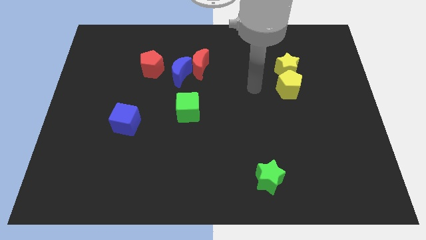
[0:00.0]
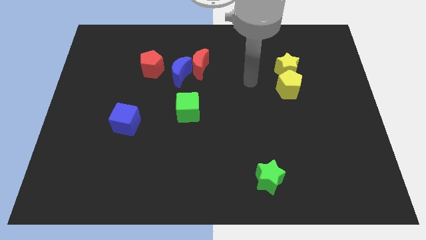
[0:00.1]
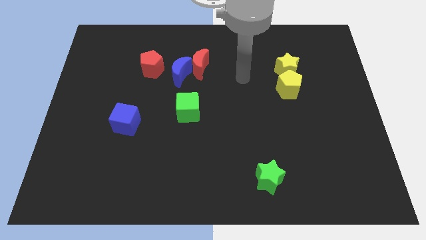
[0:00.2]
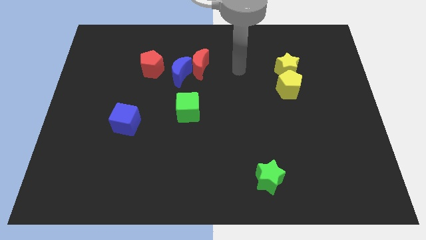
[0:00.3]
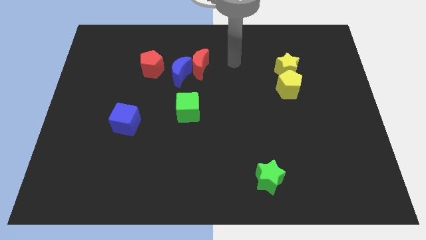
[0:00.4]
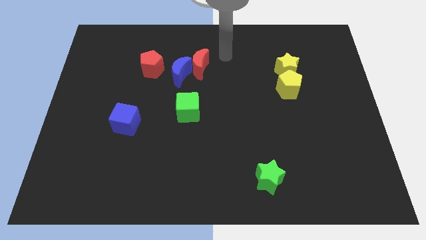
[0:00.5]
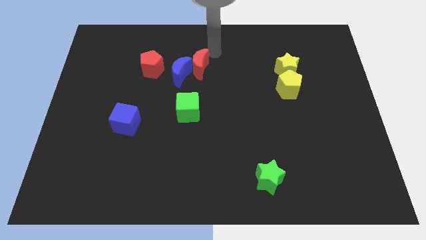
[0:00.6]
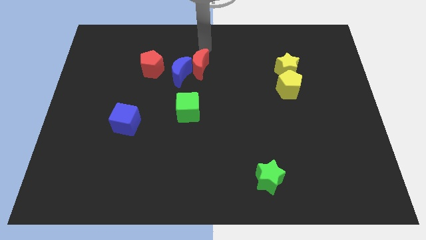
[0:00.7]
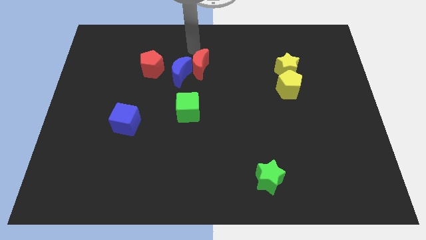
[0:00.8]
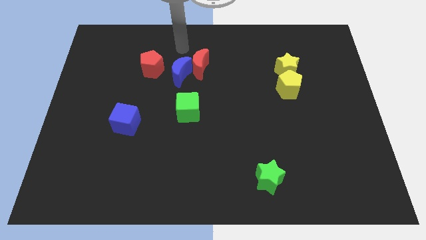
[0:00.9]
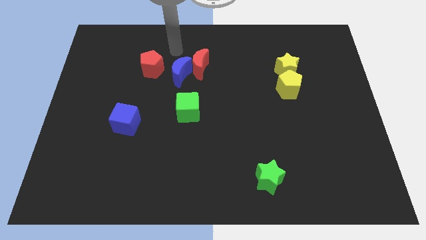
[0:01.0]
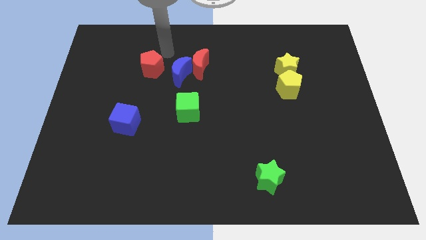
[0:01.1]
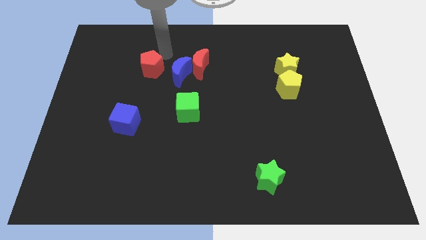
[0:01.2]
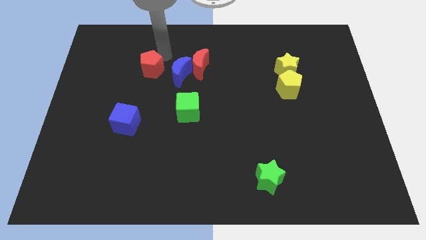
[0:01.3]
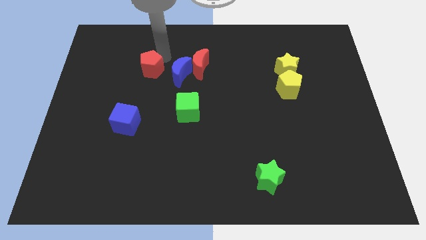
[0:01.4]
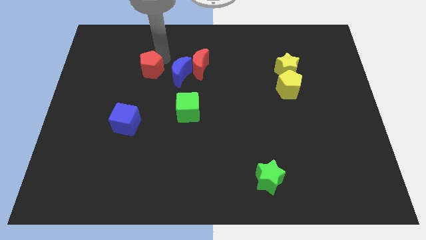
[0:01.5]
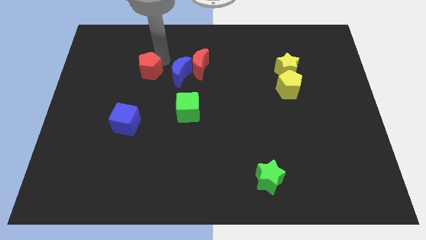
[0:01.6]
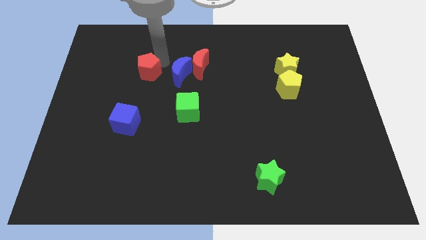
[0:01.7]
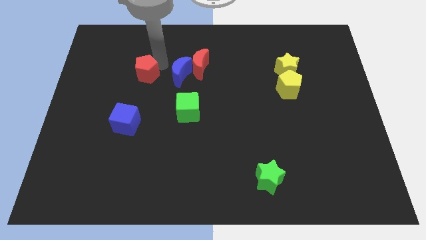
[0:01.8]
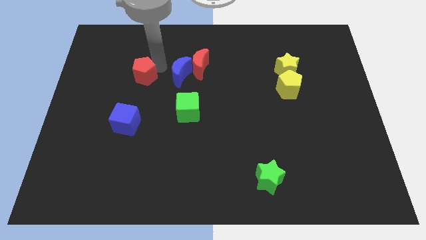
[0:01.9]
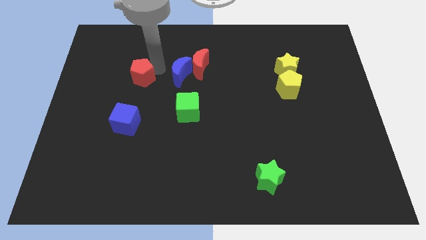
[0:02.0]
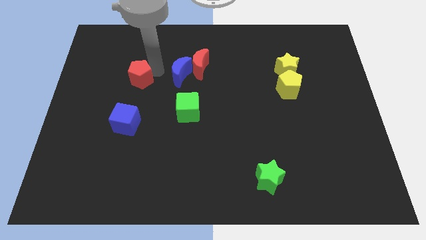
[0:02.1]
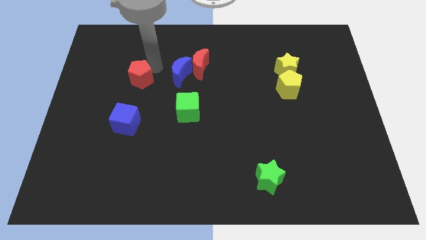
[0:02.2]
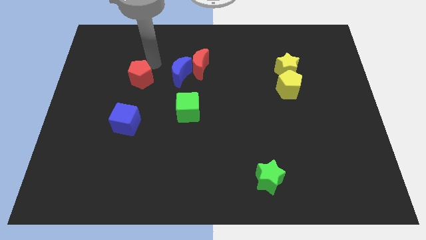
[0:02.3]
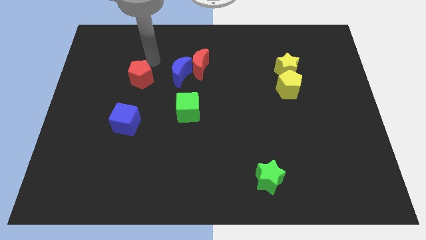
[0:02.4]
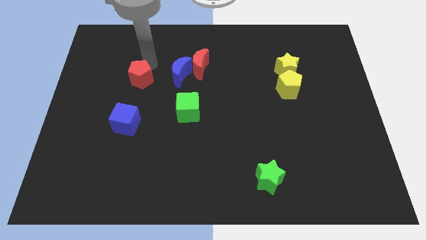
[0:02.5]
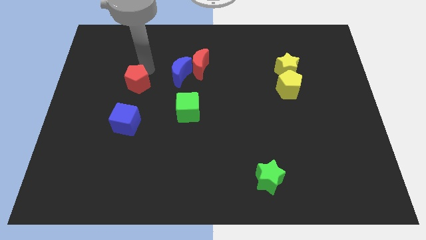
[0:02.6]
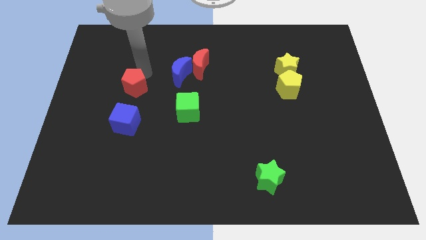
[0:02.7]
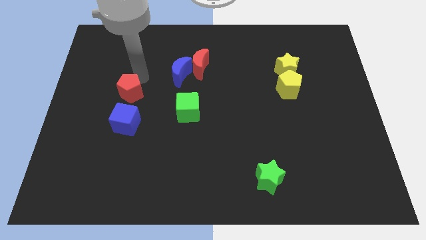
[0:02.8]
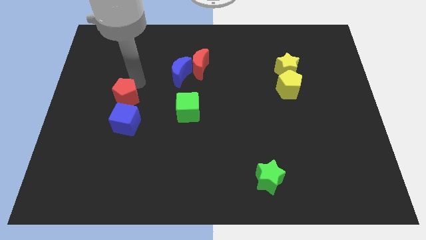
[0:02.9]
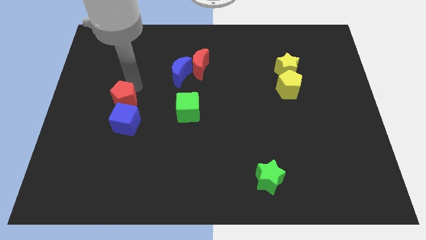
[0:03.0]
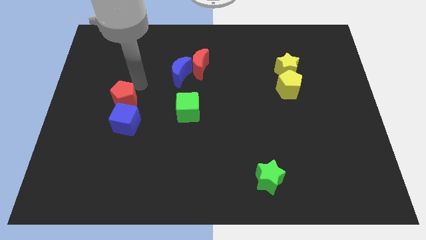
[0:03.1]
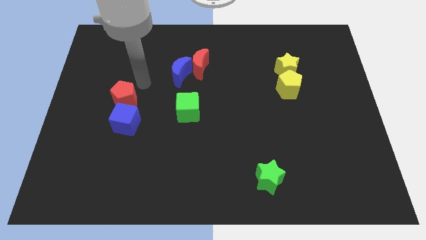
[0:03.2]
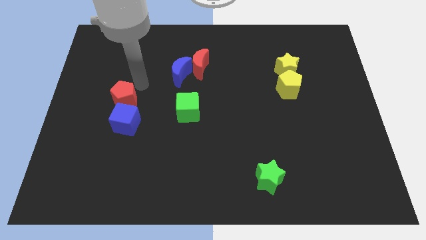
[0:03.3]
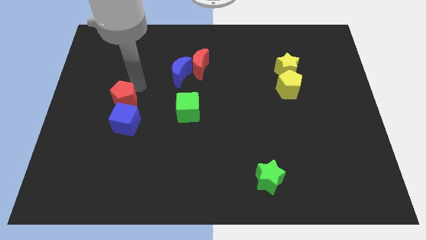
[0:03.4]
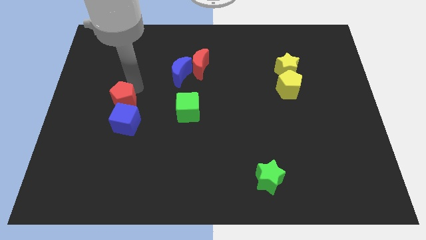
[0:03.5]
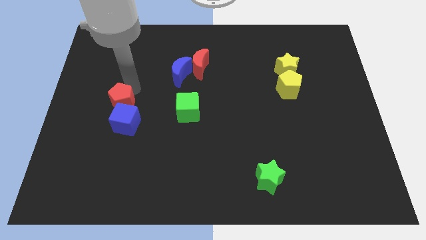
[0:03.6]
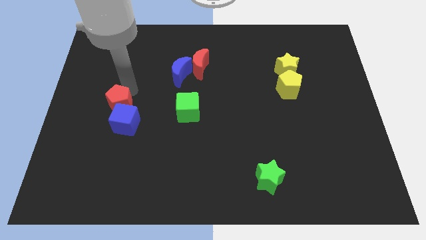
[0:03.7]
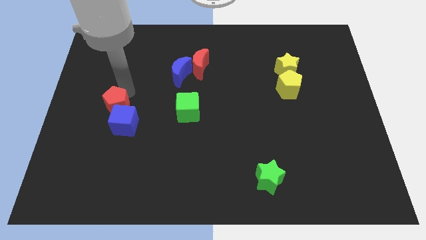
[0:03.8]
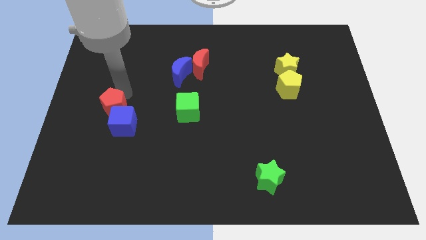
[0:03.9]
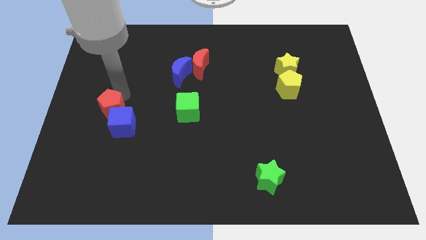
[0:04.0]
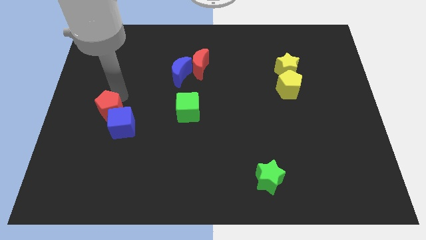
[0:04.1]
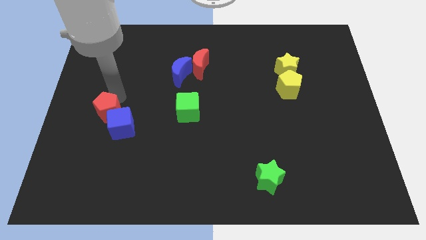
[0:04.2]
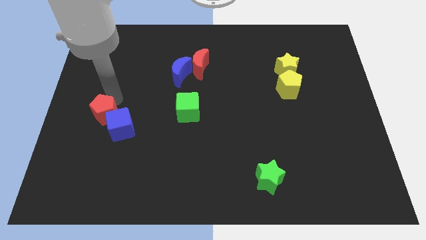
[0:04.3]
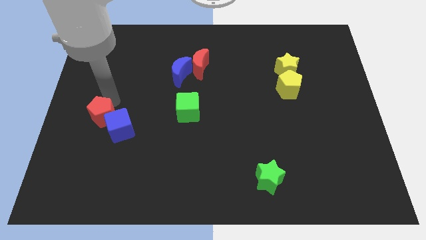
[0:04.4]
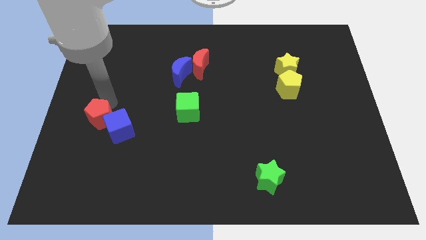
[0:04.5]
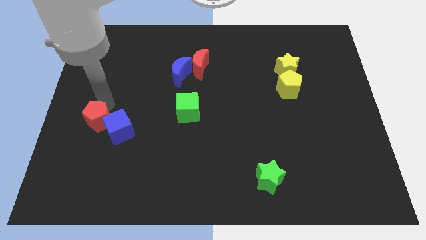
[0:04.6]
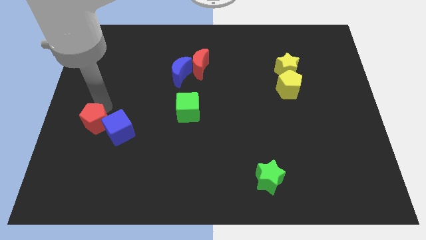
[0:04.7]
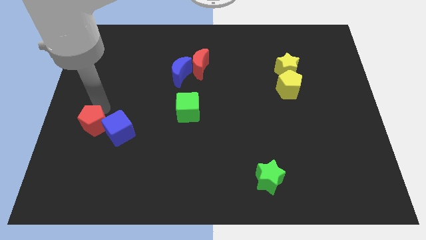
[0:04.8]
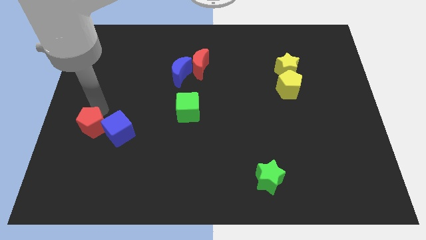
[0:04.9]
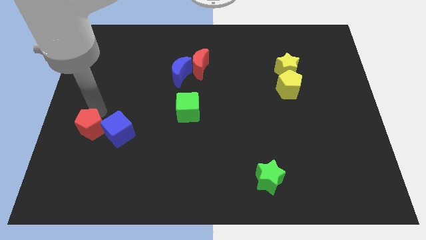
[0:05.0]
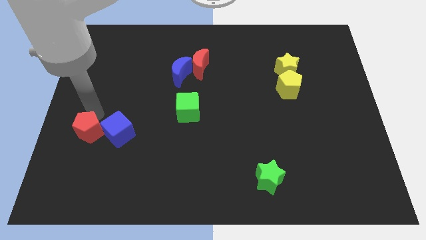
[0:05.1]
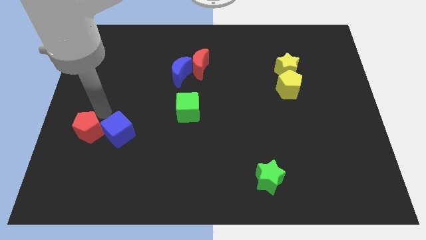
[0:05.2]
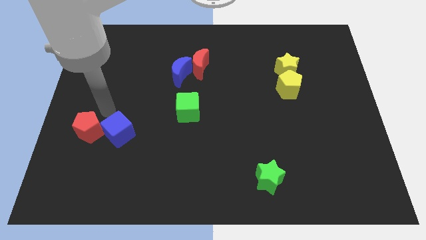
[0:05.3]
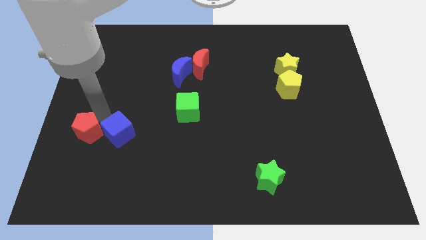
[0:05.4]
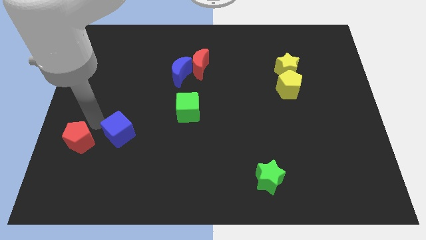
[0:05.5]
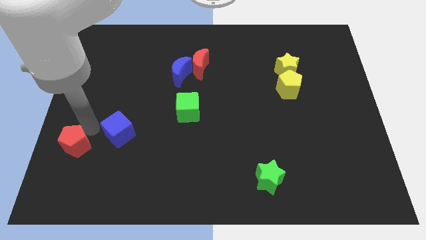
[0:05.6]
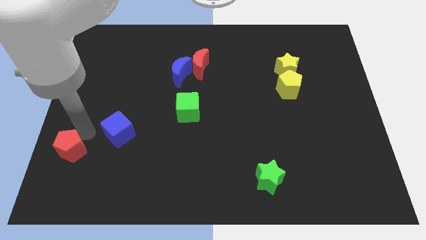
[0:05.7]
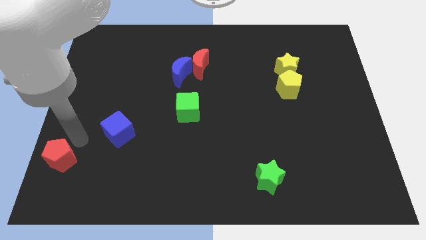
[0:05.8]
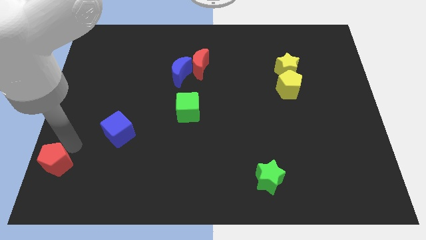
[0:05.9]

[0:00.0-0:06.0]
put the red pentagon to the bottom left of the board
